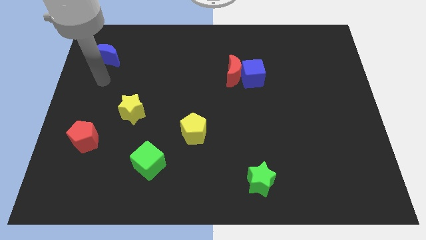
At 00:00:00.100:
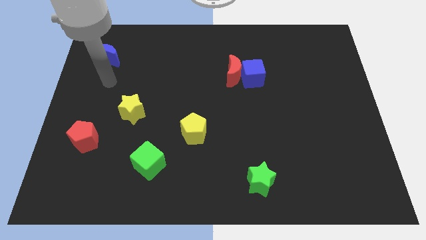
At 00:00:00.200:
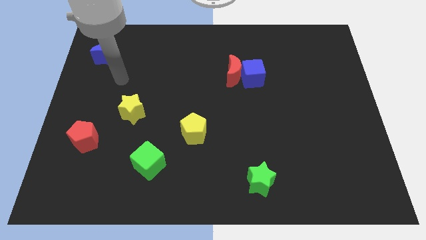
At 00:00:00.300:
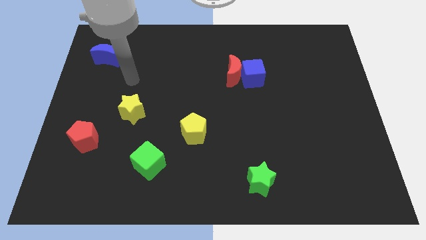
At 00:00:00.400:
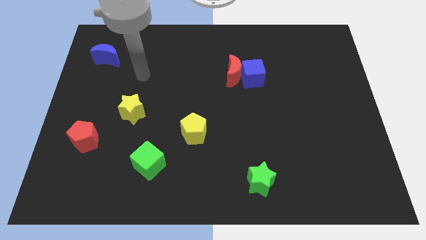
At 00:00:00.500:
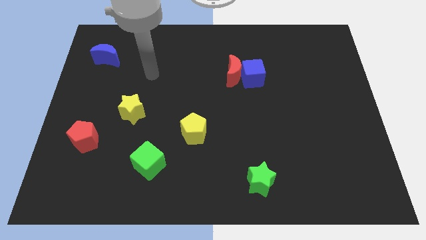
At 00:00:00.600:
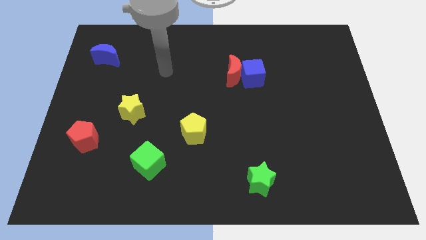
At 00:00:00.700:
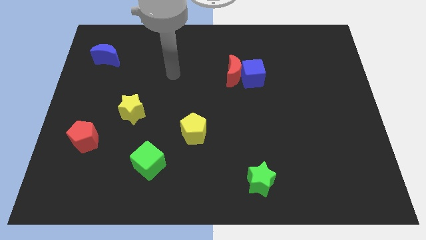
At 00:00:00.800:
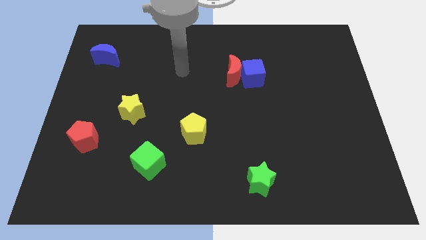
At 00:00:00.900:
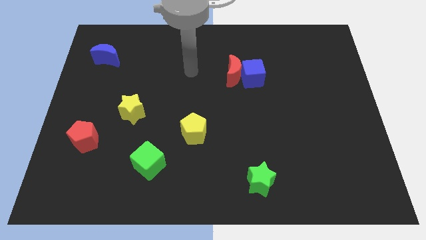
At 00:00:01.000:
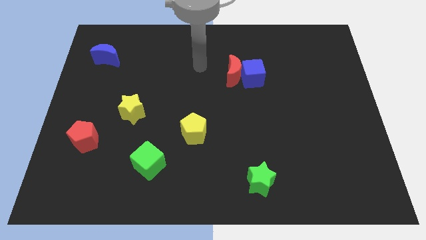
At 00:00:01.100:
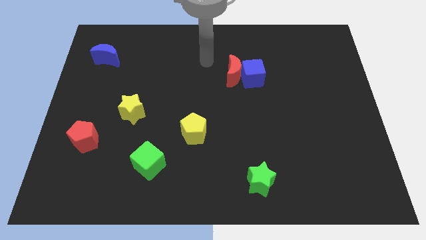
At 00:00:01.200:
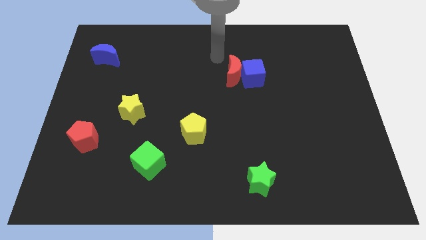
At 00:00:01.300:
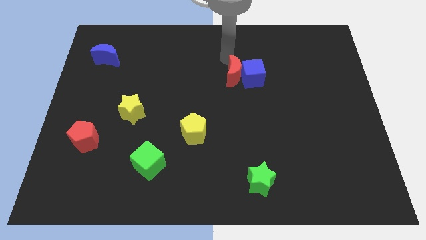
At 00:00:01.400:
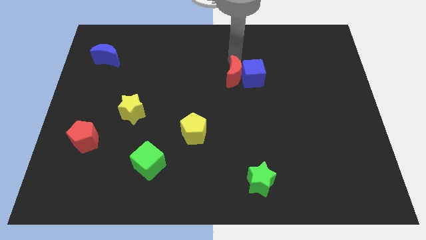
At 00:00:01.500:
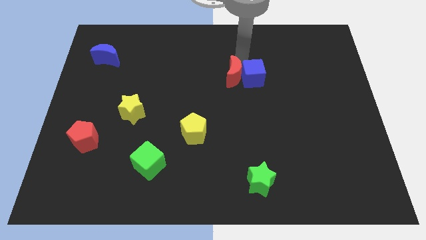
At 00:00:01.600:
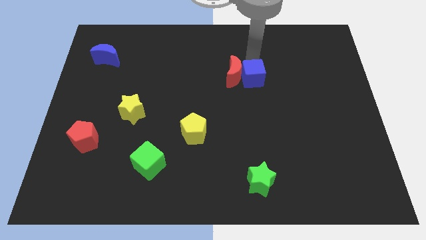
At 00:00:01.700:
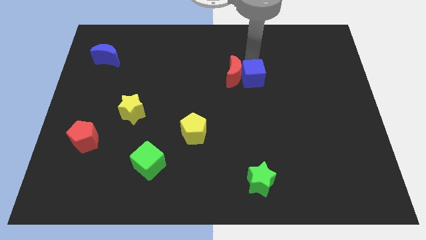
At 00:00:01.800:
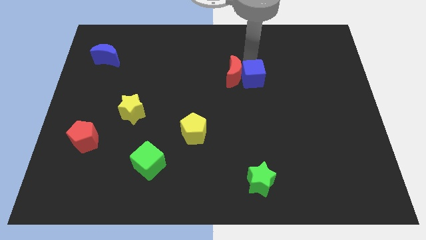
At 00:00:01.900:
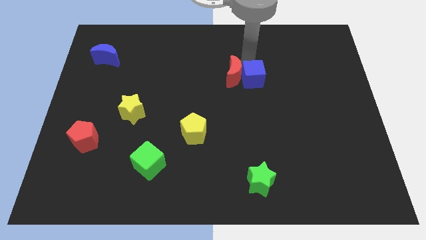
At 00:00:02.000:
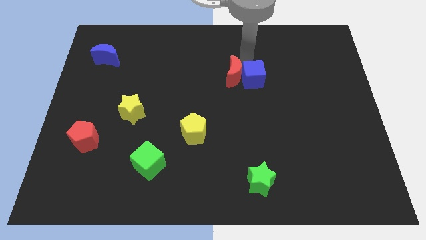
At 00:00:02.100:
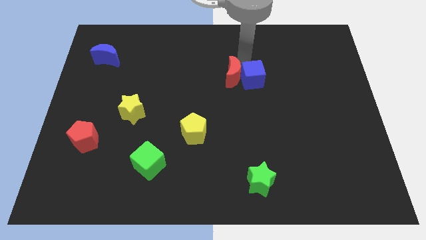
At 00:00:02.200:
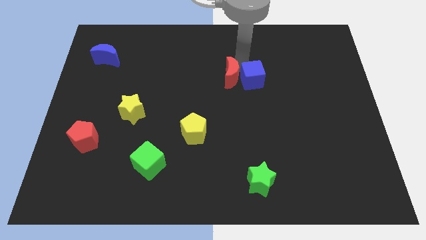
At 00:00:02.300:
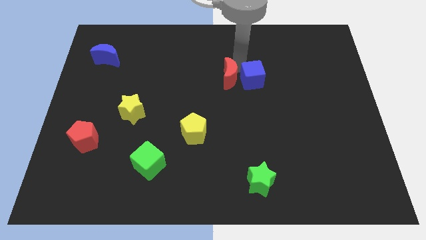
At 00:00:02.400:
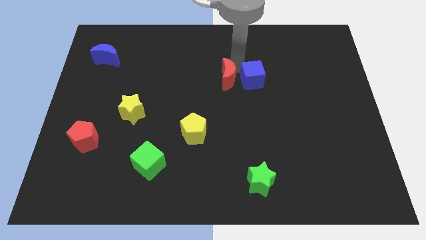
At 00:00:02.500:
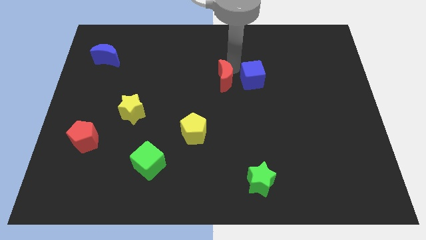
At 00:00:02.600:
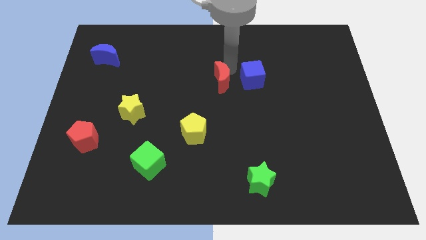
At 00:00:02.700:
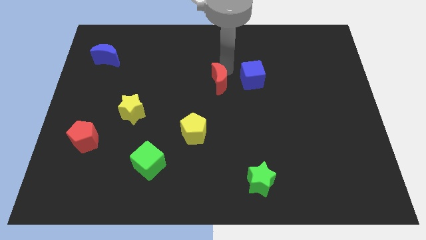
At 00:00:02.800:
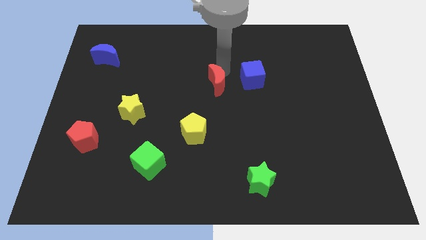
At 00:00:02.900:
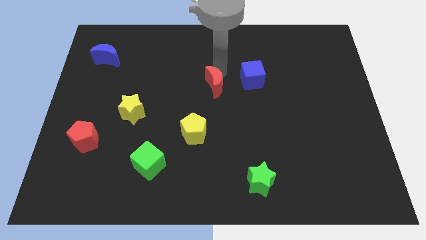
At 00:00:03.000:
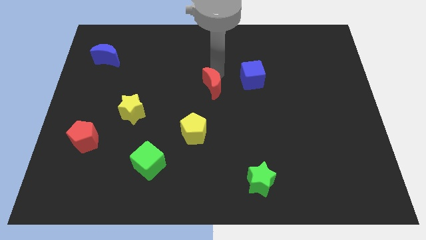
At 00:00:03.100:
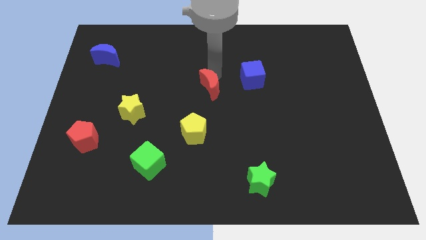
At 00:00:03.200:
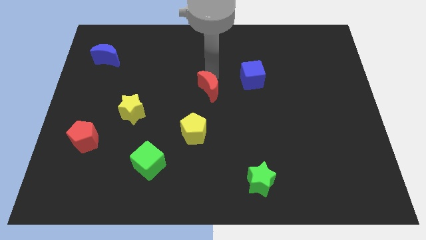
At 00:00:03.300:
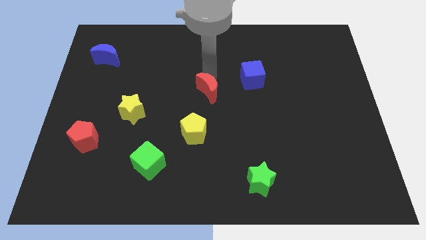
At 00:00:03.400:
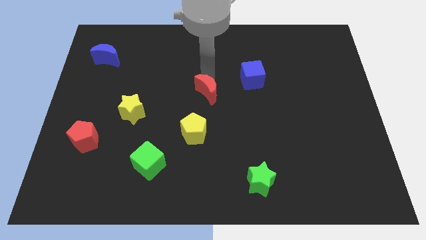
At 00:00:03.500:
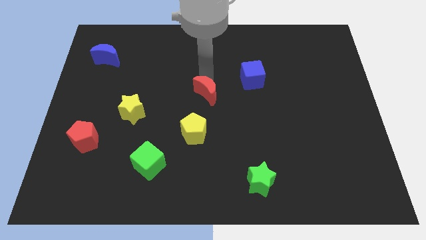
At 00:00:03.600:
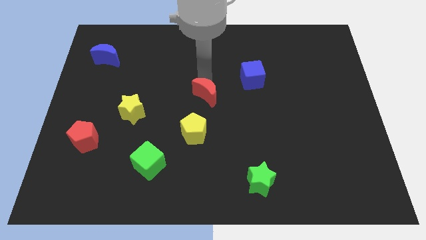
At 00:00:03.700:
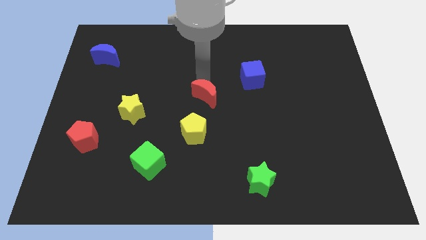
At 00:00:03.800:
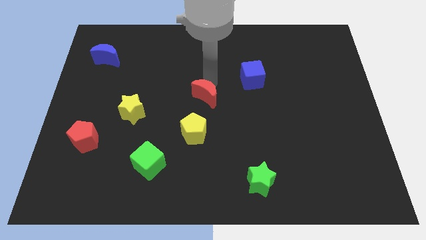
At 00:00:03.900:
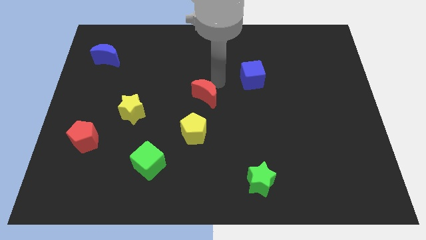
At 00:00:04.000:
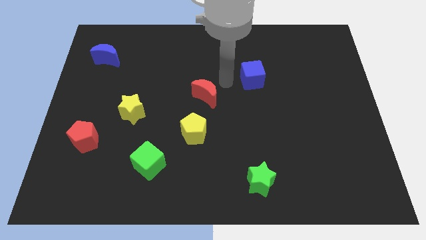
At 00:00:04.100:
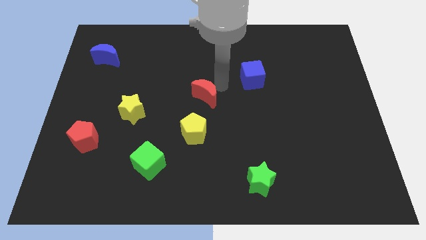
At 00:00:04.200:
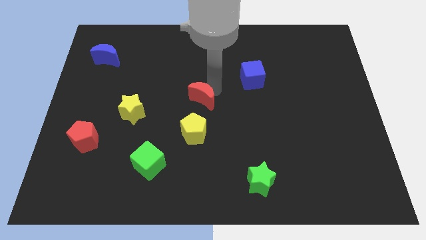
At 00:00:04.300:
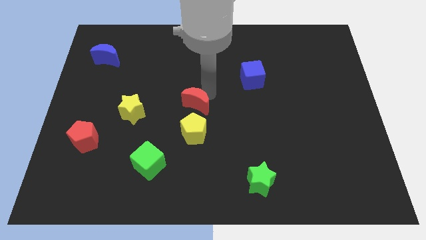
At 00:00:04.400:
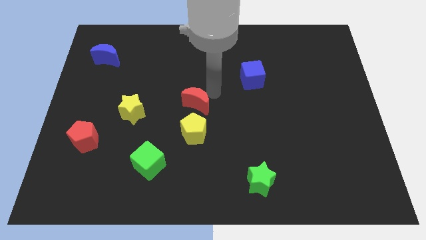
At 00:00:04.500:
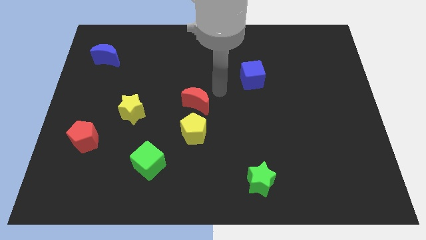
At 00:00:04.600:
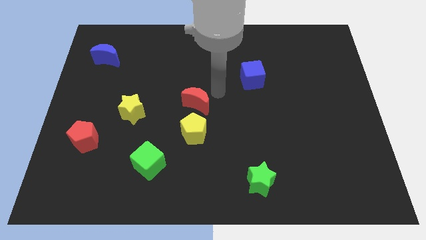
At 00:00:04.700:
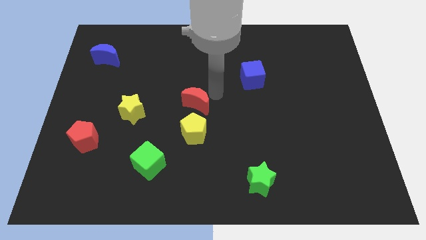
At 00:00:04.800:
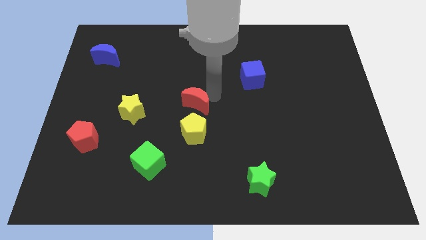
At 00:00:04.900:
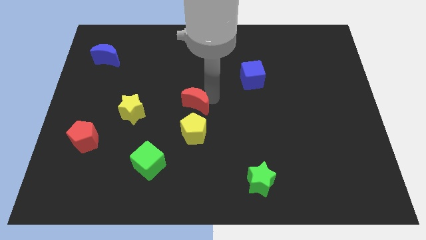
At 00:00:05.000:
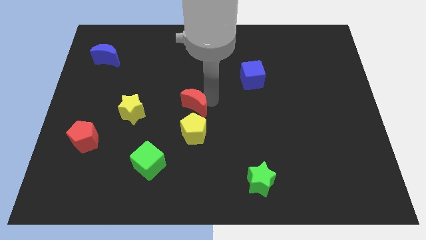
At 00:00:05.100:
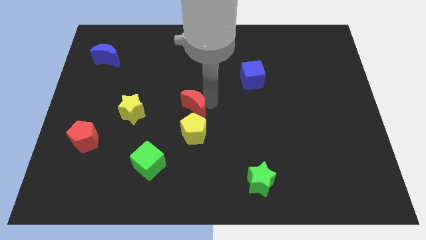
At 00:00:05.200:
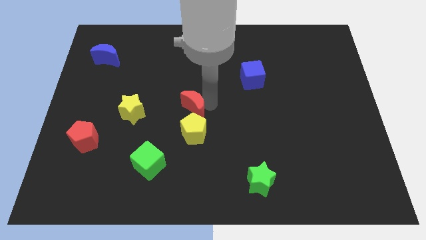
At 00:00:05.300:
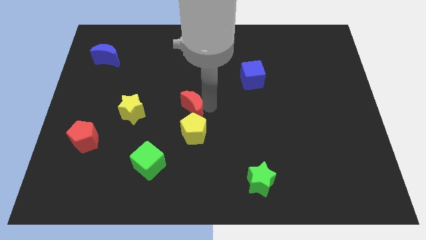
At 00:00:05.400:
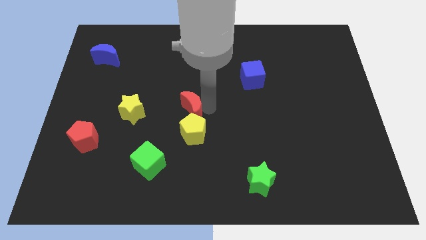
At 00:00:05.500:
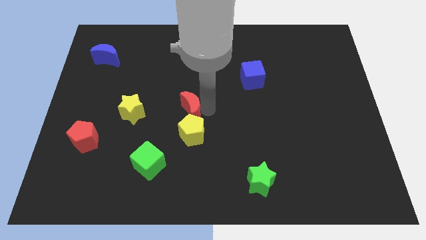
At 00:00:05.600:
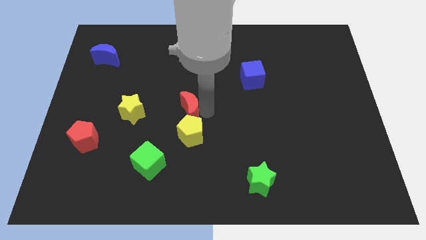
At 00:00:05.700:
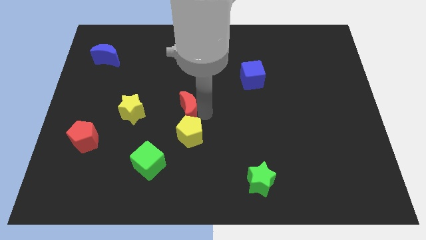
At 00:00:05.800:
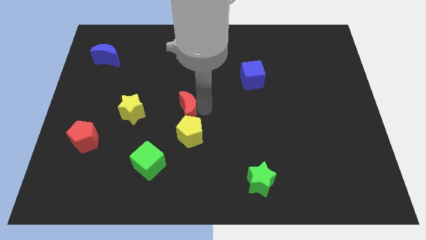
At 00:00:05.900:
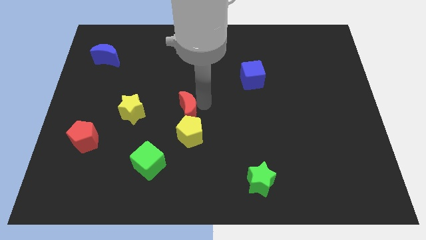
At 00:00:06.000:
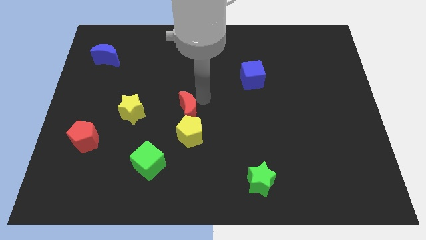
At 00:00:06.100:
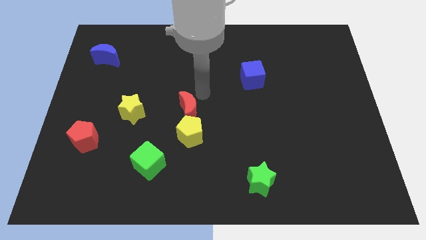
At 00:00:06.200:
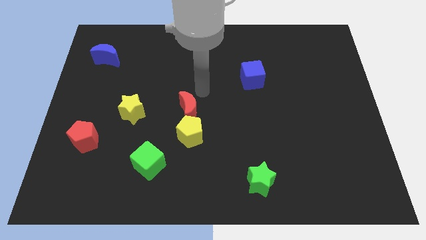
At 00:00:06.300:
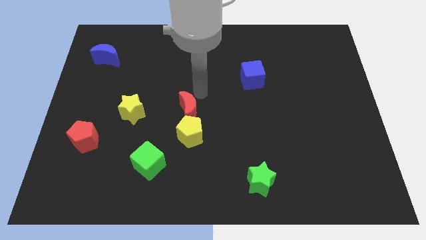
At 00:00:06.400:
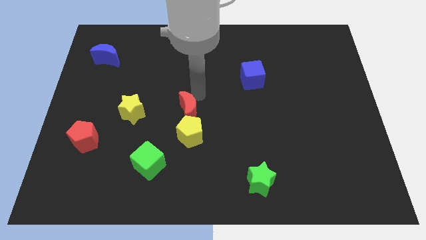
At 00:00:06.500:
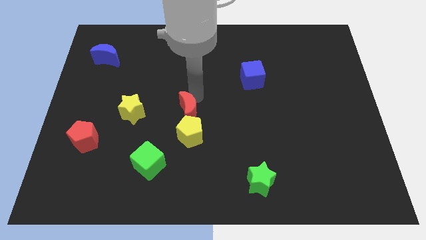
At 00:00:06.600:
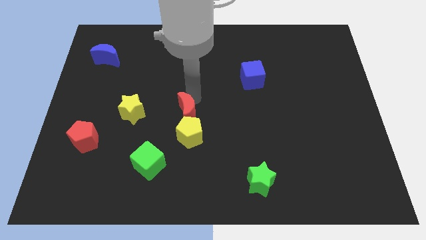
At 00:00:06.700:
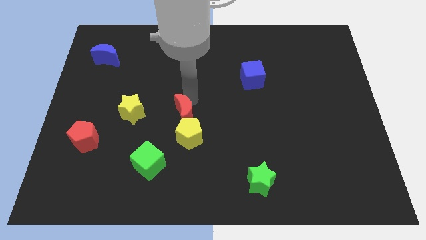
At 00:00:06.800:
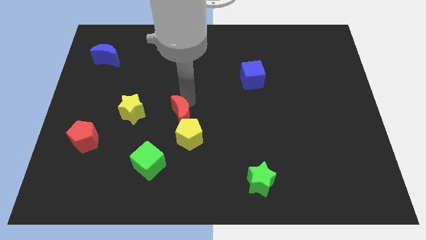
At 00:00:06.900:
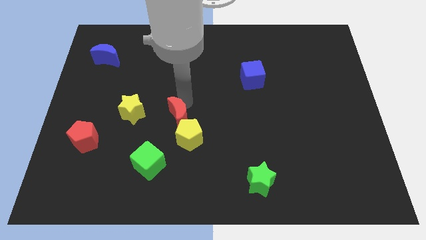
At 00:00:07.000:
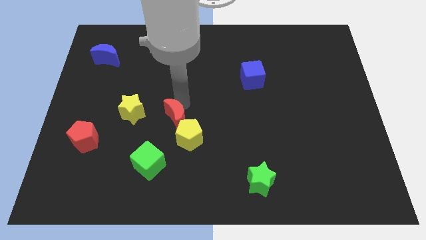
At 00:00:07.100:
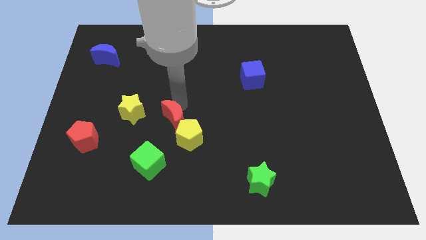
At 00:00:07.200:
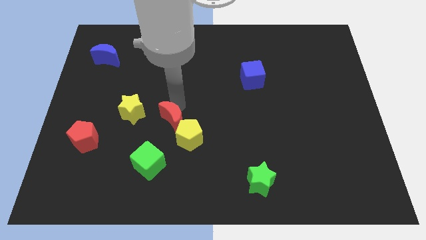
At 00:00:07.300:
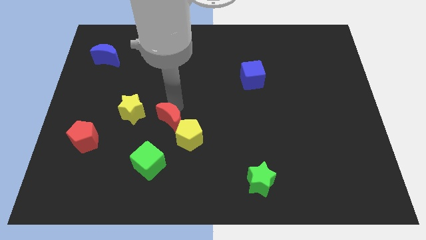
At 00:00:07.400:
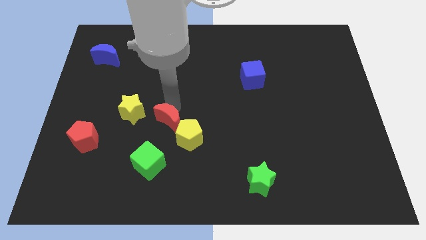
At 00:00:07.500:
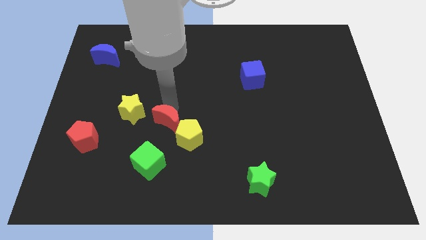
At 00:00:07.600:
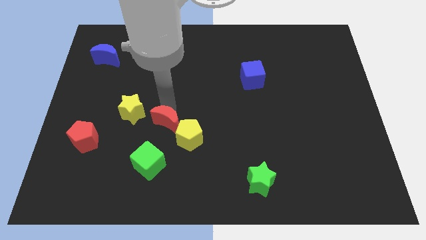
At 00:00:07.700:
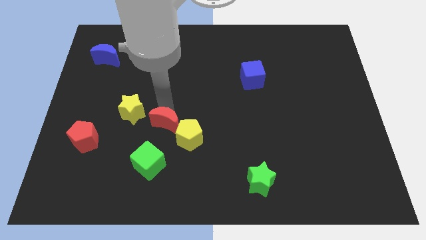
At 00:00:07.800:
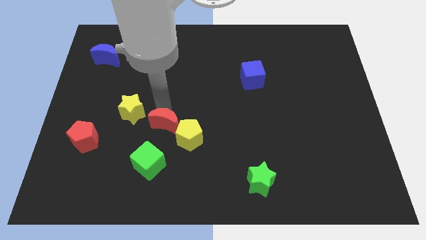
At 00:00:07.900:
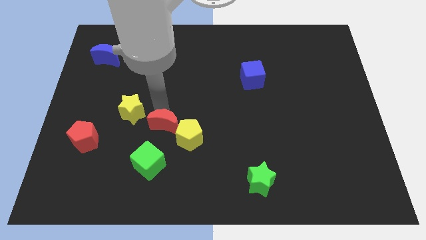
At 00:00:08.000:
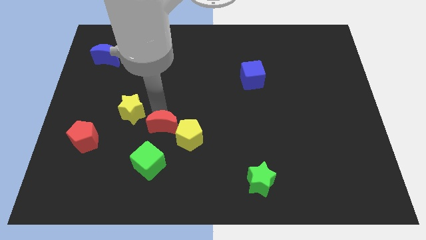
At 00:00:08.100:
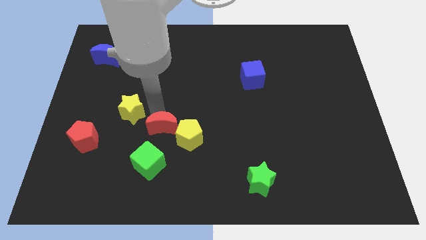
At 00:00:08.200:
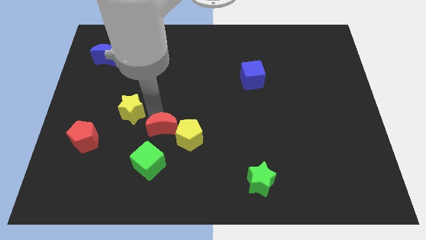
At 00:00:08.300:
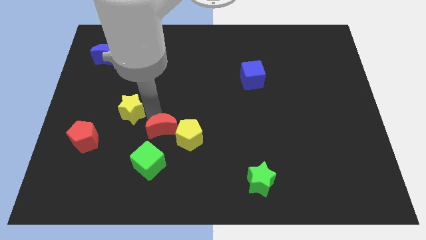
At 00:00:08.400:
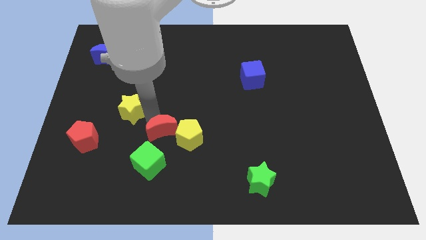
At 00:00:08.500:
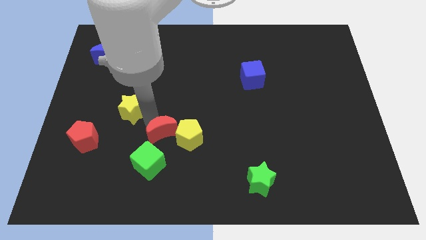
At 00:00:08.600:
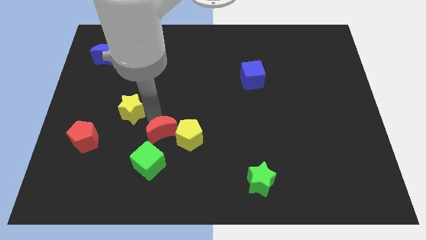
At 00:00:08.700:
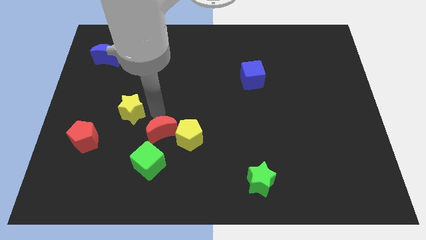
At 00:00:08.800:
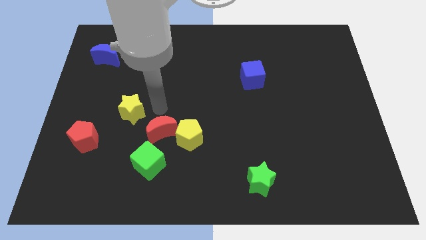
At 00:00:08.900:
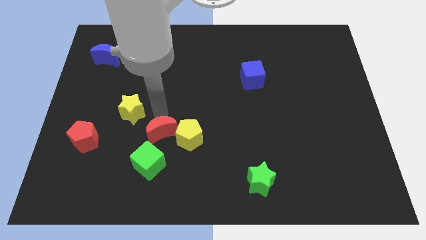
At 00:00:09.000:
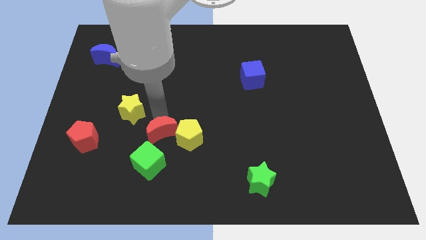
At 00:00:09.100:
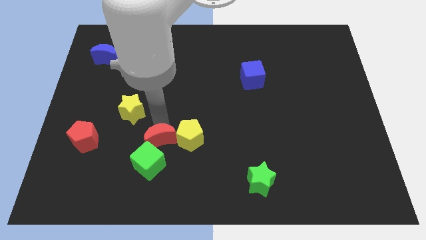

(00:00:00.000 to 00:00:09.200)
move the red moon diagonally down and to the left of the yellow pentagon
